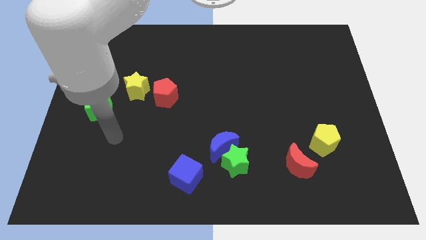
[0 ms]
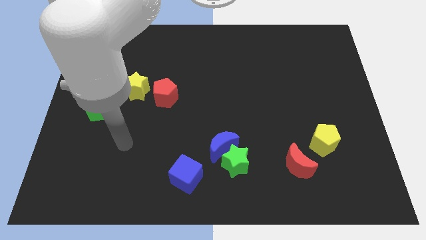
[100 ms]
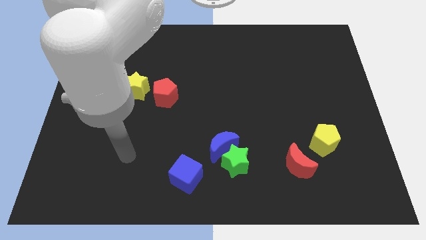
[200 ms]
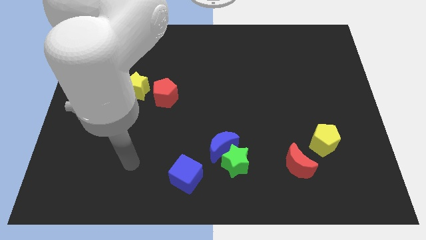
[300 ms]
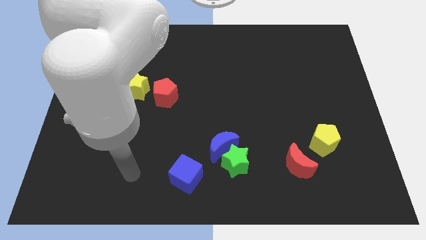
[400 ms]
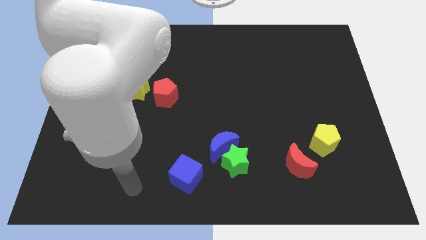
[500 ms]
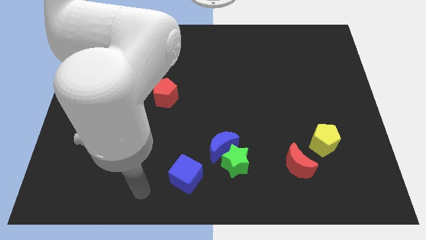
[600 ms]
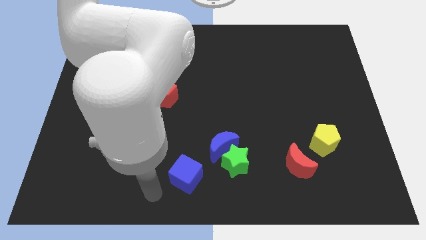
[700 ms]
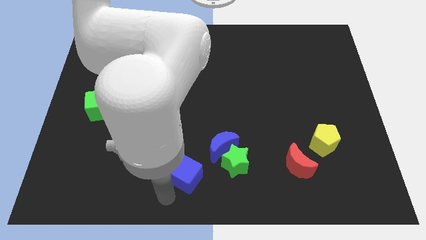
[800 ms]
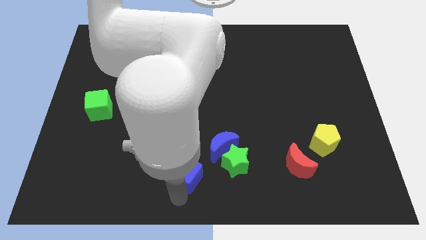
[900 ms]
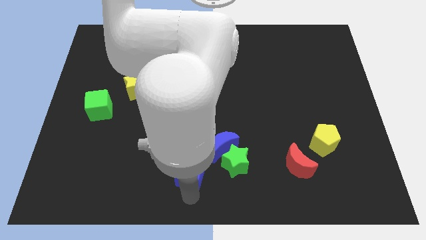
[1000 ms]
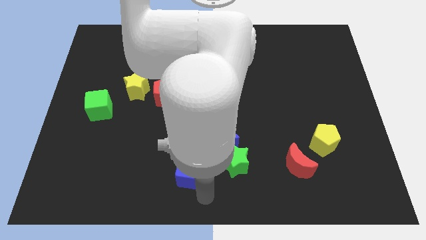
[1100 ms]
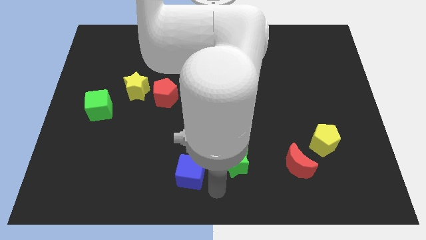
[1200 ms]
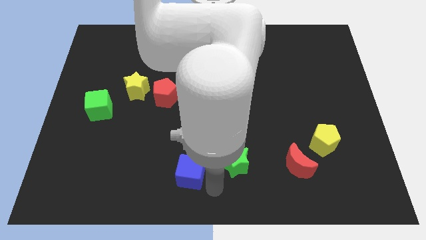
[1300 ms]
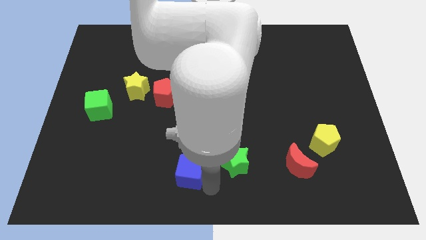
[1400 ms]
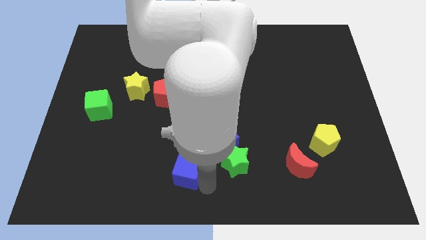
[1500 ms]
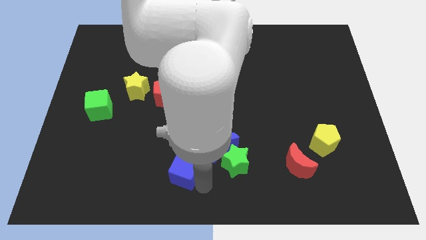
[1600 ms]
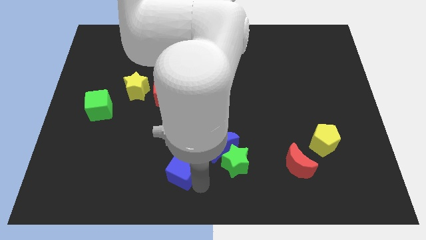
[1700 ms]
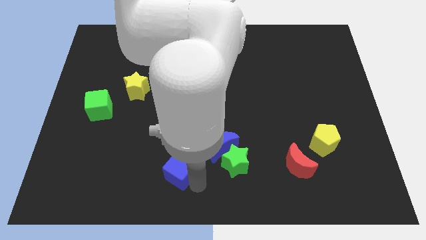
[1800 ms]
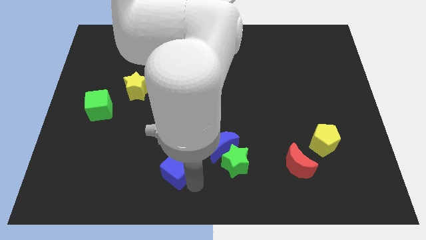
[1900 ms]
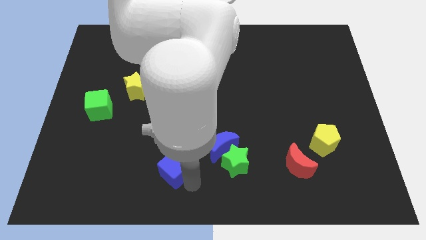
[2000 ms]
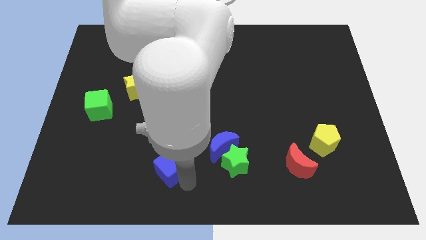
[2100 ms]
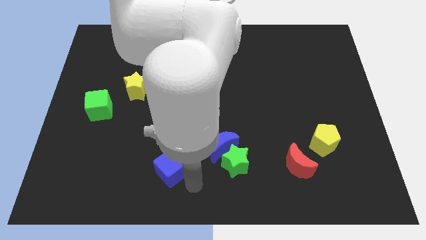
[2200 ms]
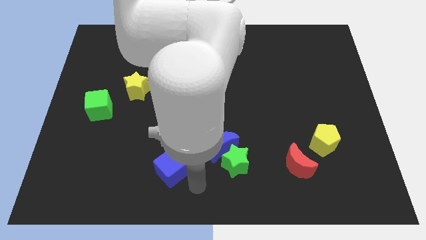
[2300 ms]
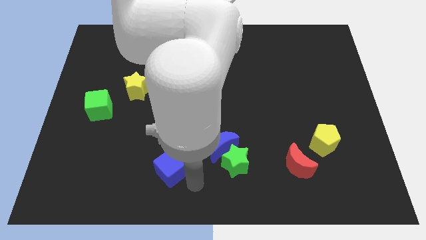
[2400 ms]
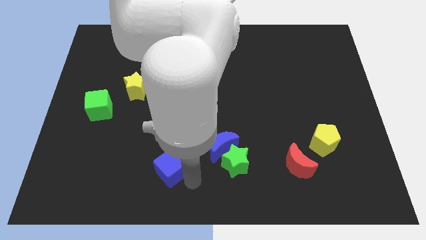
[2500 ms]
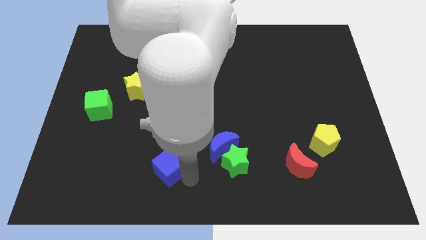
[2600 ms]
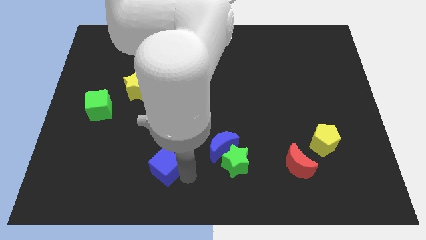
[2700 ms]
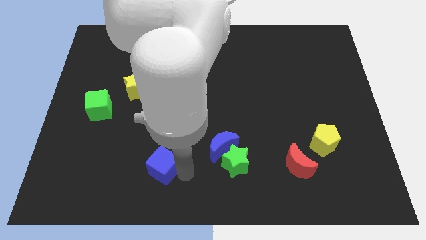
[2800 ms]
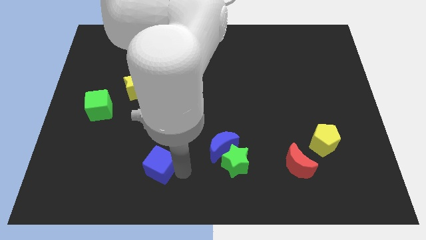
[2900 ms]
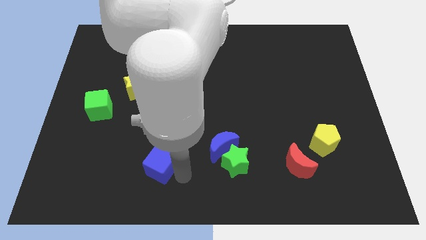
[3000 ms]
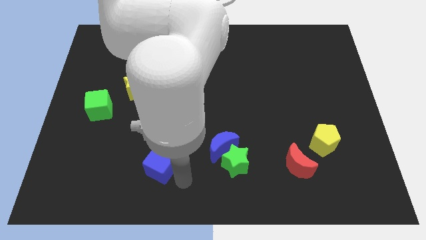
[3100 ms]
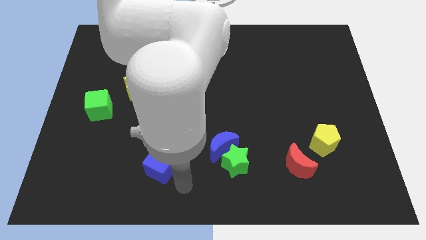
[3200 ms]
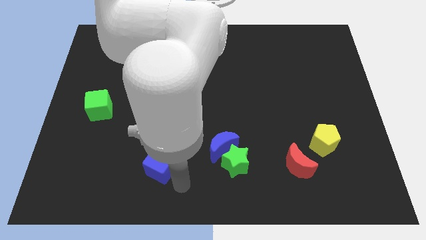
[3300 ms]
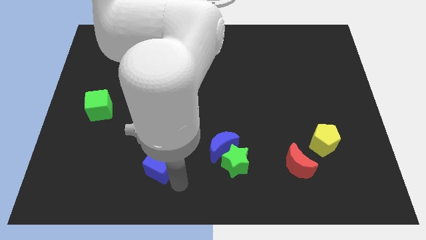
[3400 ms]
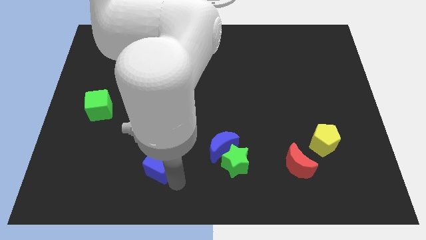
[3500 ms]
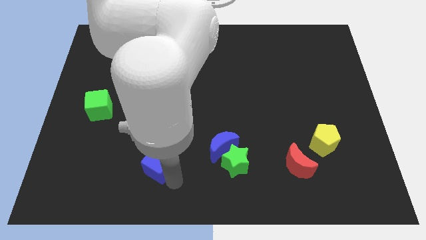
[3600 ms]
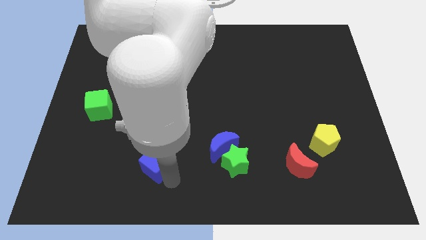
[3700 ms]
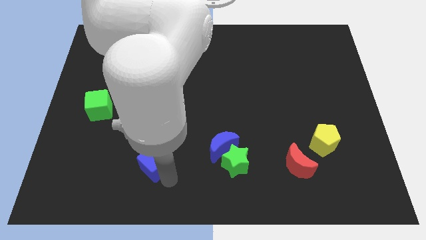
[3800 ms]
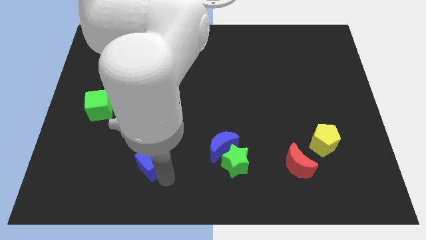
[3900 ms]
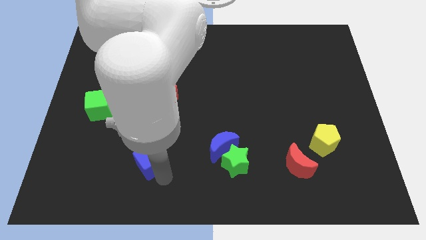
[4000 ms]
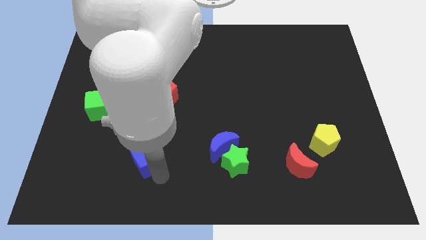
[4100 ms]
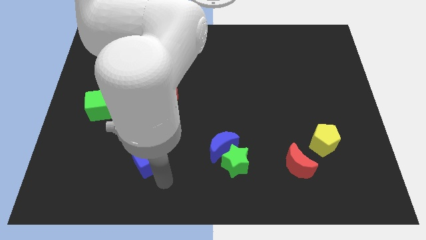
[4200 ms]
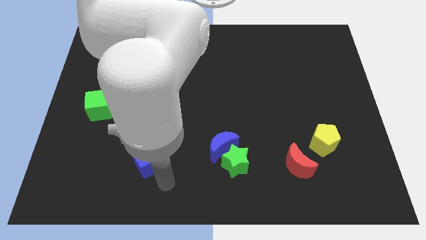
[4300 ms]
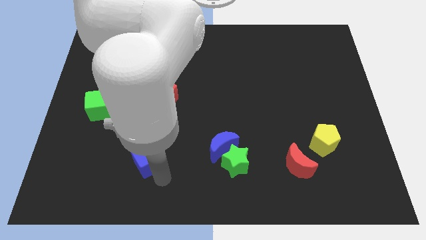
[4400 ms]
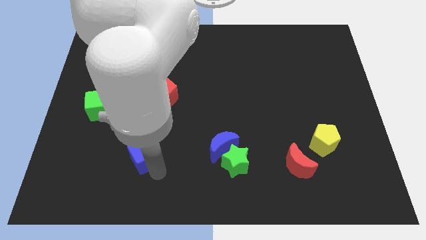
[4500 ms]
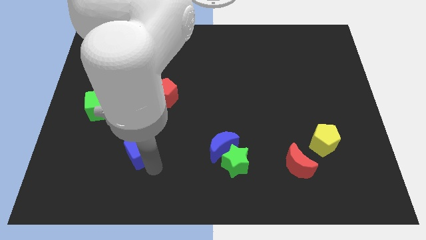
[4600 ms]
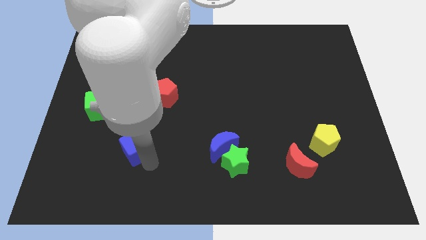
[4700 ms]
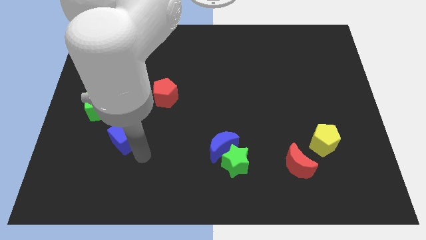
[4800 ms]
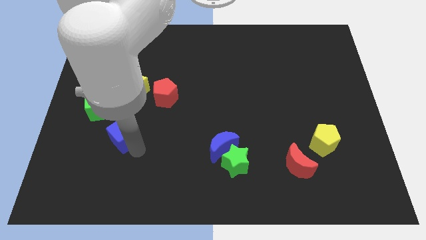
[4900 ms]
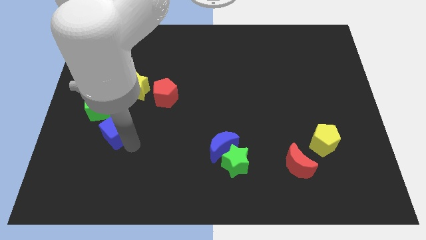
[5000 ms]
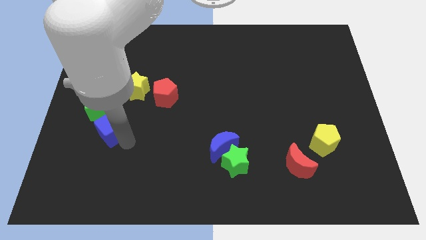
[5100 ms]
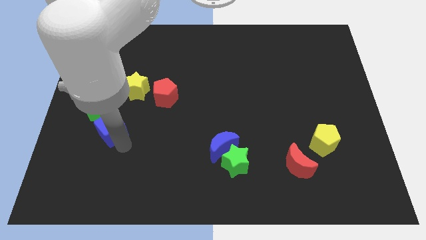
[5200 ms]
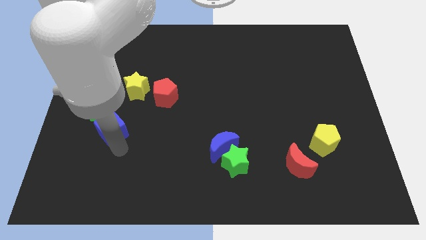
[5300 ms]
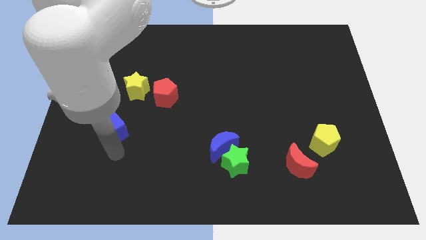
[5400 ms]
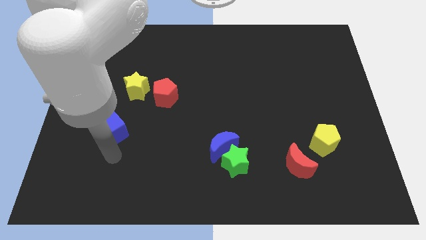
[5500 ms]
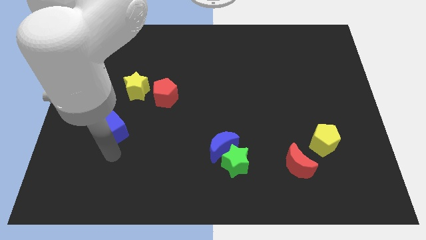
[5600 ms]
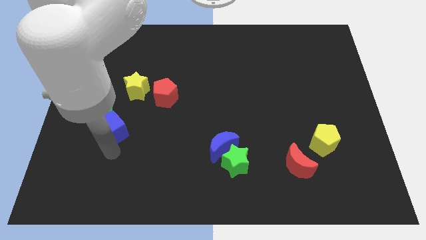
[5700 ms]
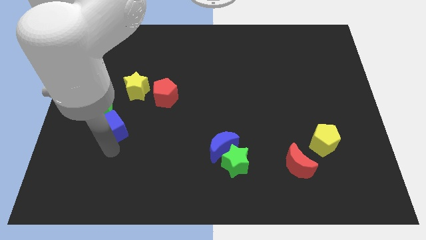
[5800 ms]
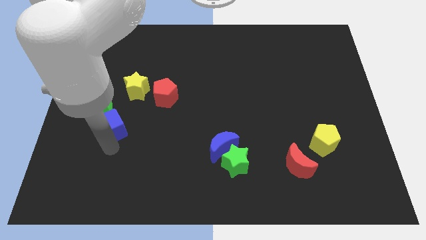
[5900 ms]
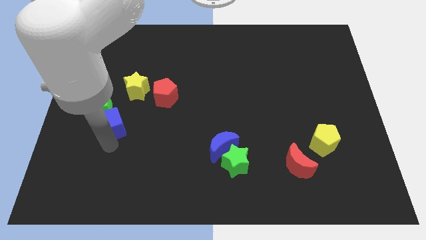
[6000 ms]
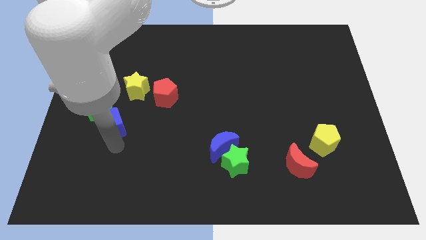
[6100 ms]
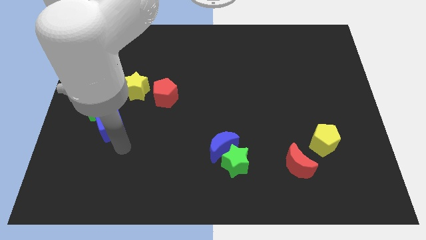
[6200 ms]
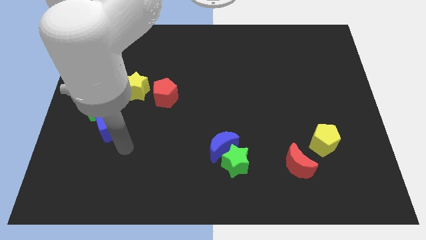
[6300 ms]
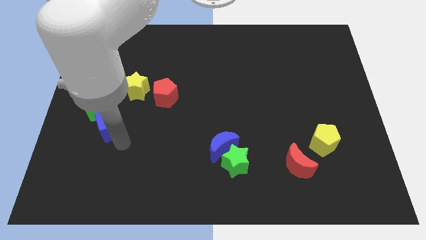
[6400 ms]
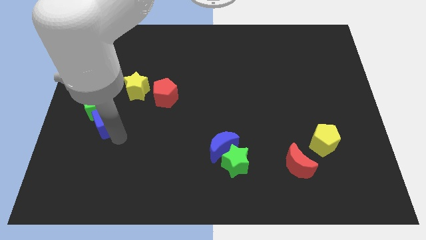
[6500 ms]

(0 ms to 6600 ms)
put the blue cube close to the green cube
